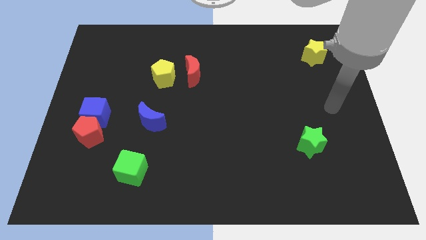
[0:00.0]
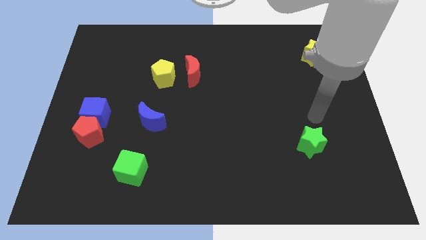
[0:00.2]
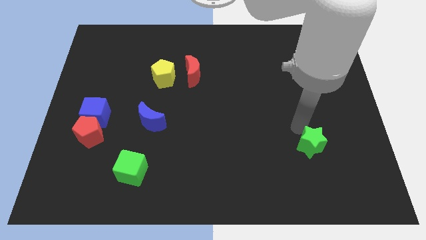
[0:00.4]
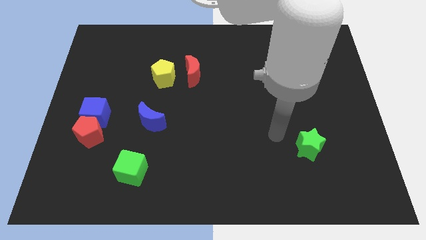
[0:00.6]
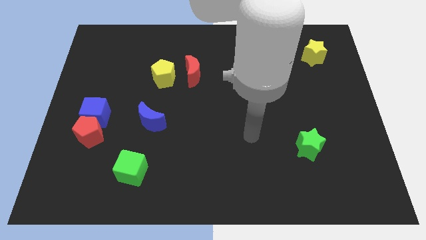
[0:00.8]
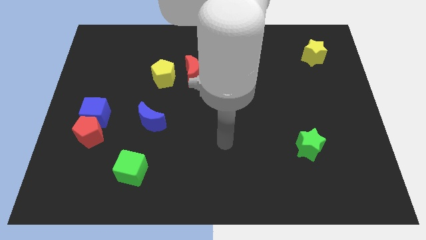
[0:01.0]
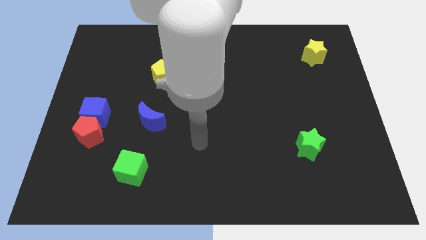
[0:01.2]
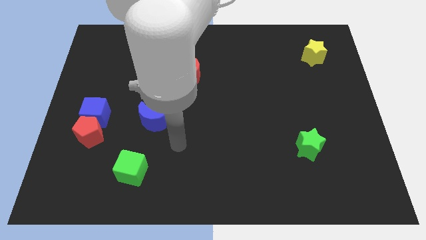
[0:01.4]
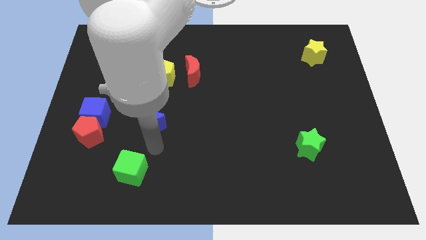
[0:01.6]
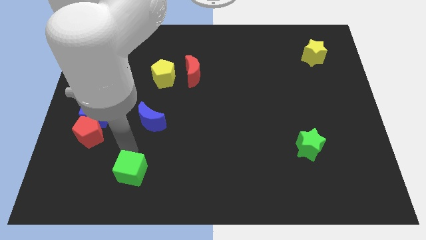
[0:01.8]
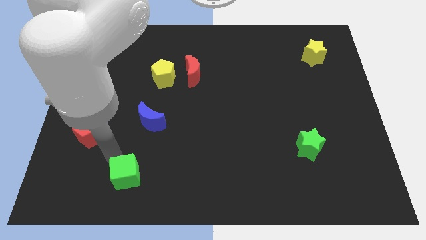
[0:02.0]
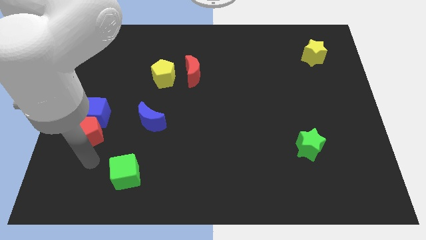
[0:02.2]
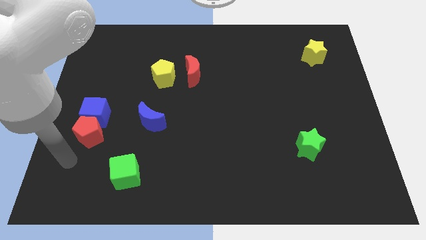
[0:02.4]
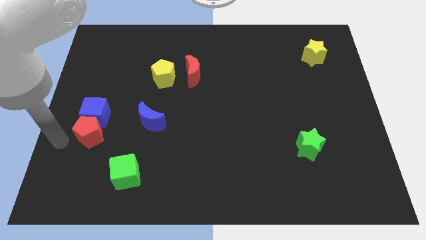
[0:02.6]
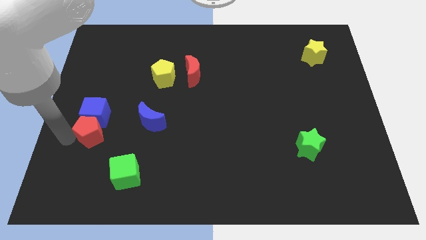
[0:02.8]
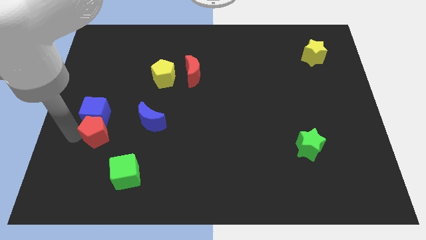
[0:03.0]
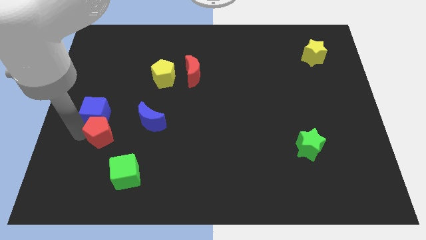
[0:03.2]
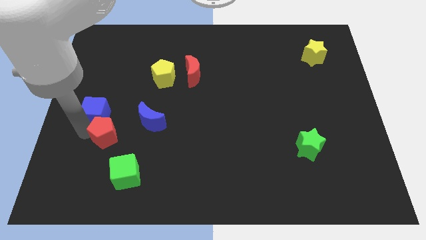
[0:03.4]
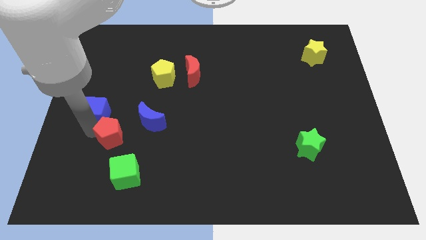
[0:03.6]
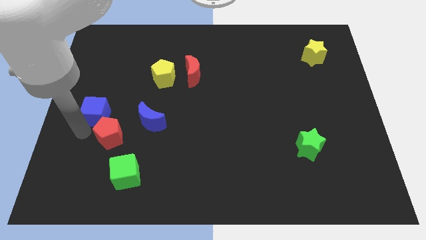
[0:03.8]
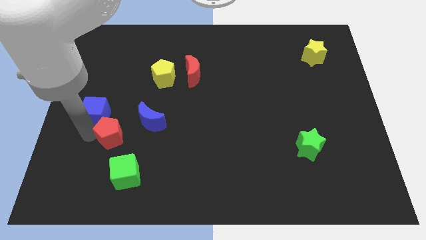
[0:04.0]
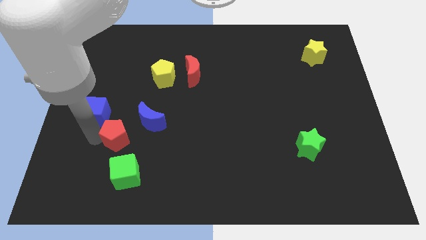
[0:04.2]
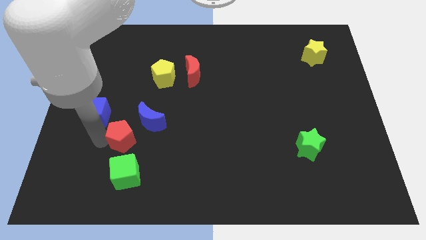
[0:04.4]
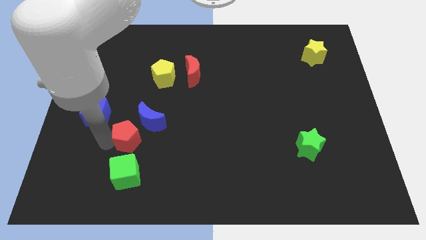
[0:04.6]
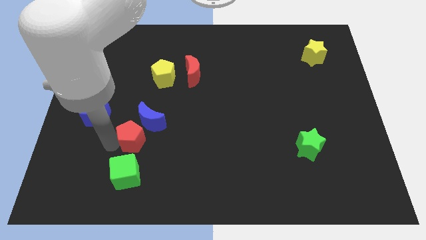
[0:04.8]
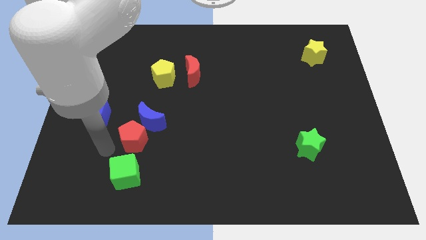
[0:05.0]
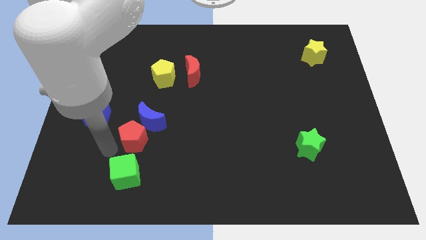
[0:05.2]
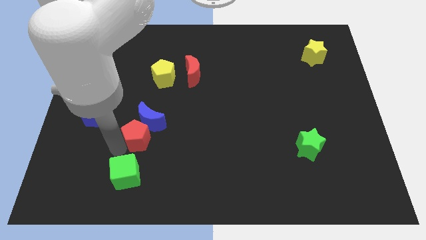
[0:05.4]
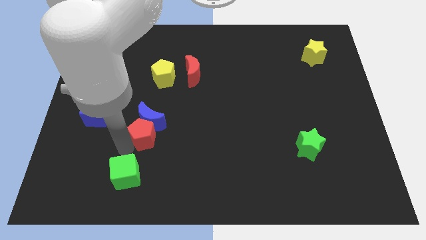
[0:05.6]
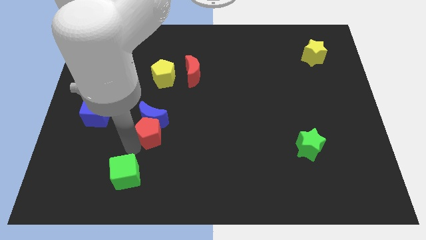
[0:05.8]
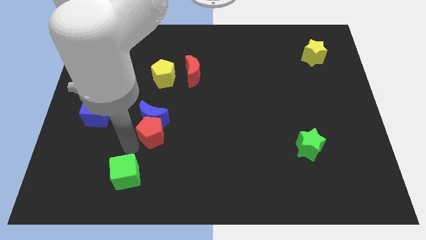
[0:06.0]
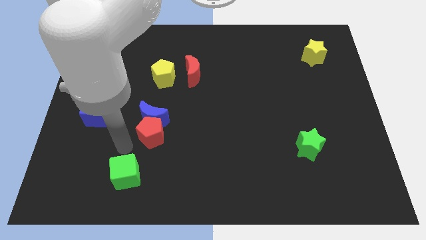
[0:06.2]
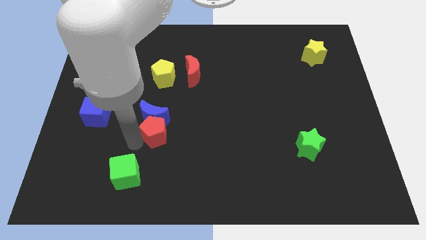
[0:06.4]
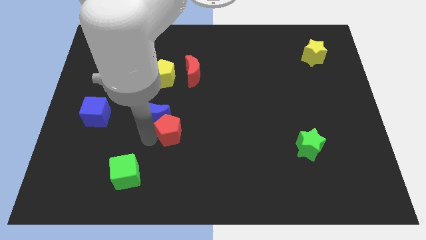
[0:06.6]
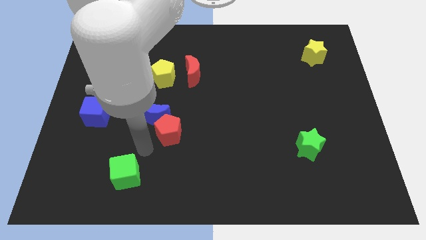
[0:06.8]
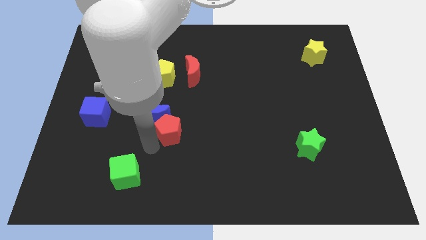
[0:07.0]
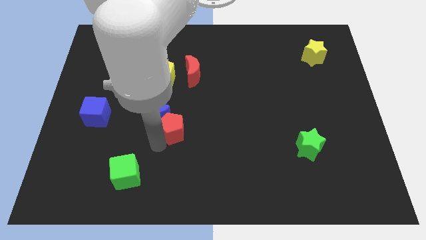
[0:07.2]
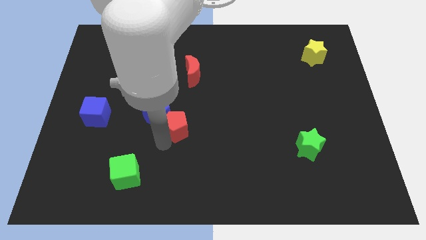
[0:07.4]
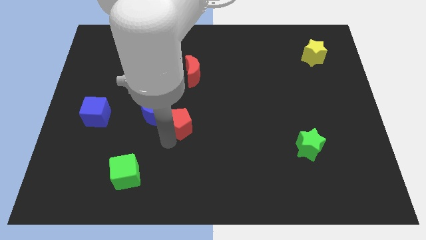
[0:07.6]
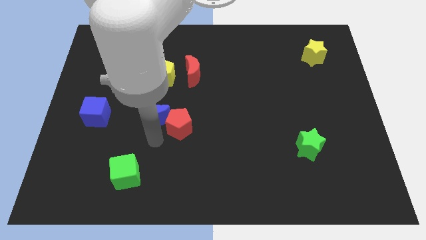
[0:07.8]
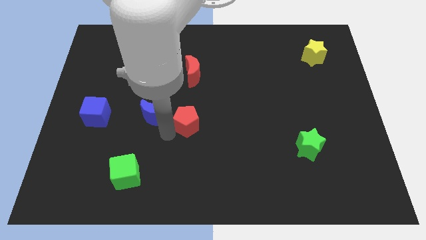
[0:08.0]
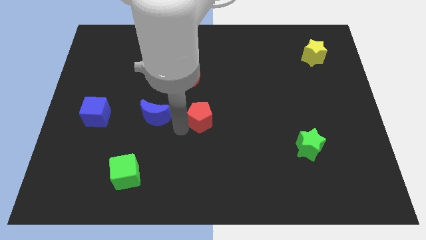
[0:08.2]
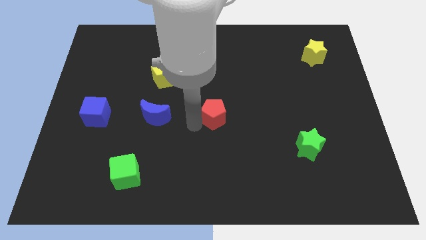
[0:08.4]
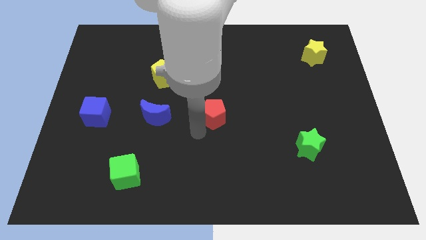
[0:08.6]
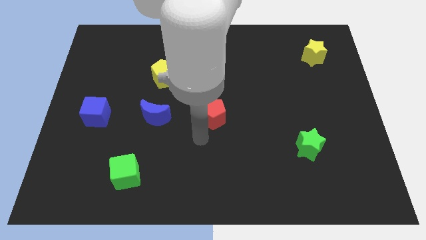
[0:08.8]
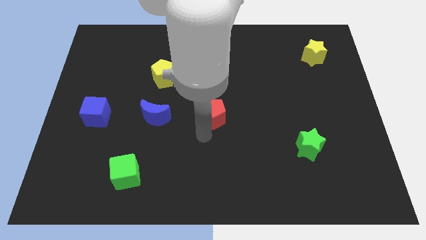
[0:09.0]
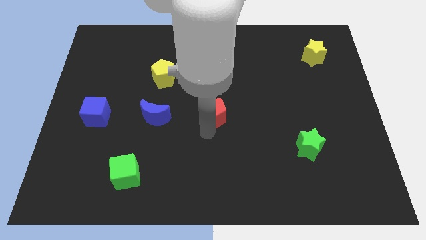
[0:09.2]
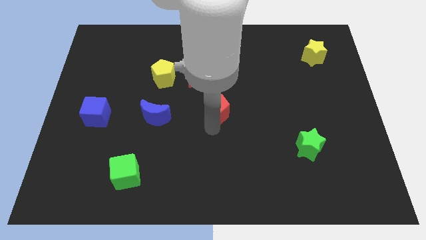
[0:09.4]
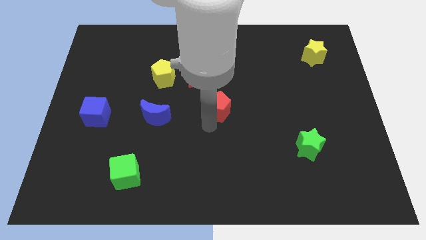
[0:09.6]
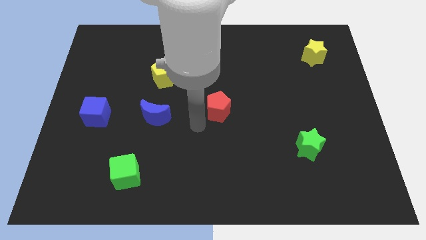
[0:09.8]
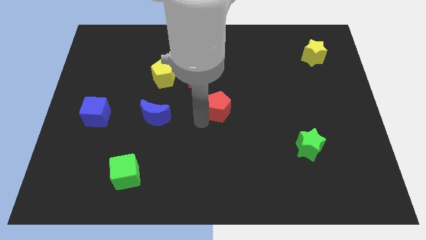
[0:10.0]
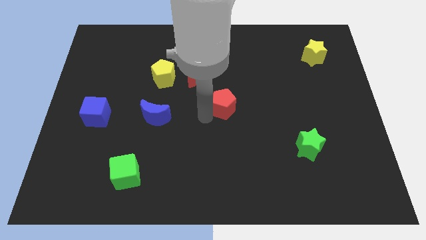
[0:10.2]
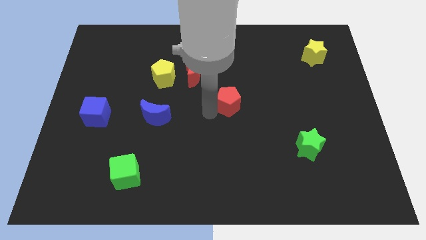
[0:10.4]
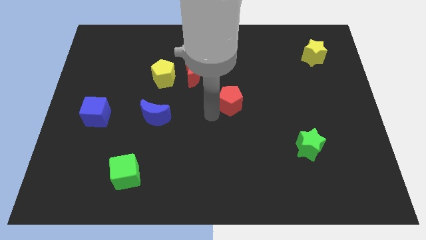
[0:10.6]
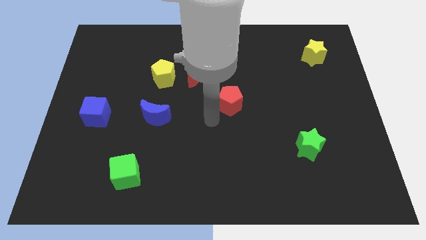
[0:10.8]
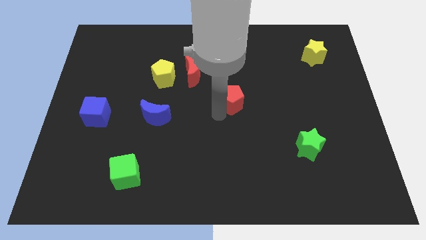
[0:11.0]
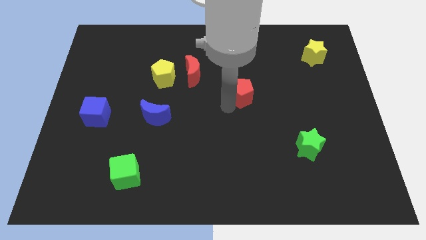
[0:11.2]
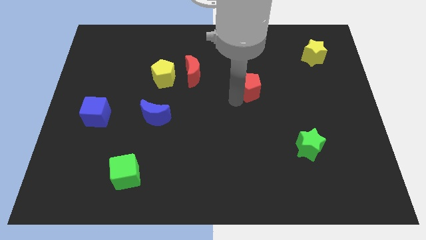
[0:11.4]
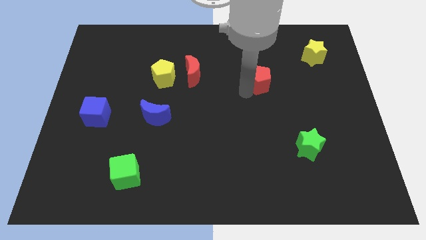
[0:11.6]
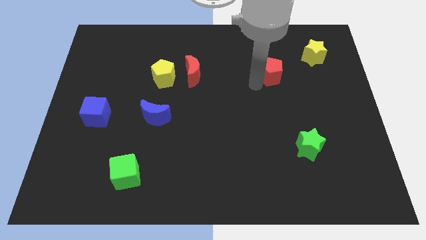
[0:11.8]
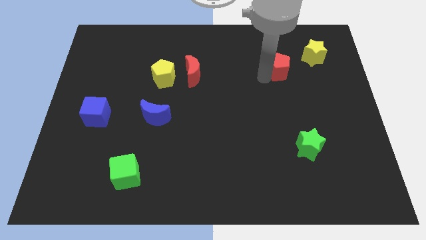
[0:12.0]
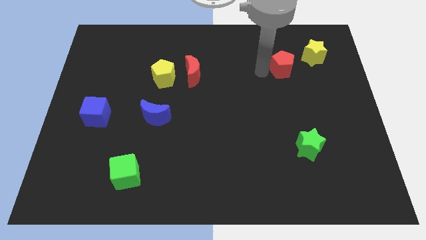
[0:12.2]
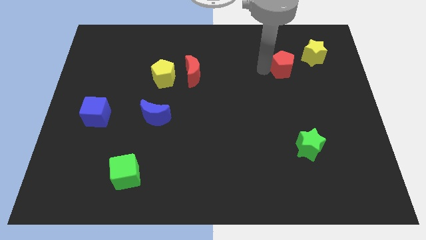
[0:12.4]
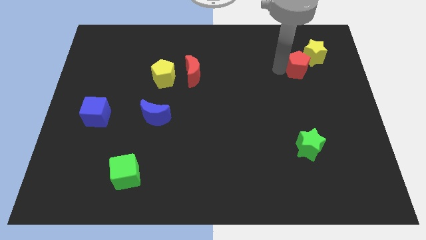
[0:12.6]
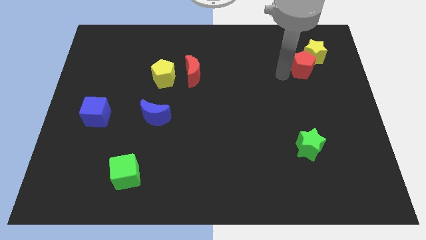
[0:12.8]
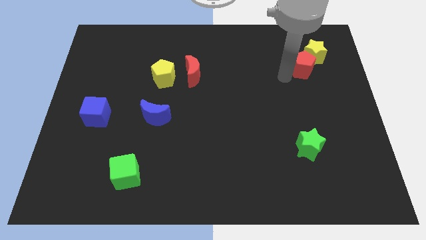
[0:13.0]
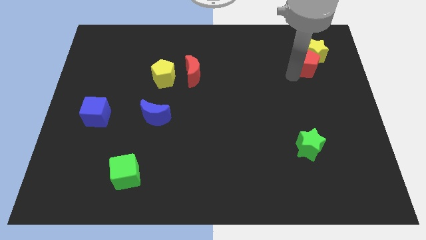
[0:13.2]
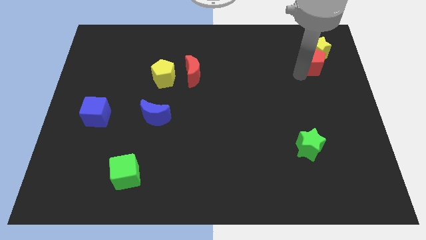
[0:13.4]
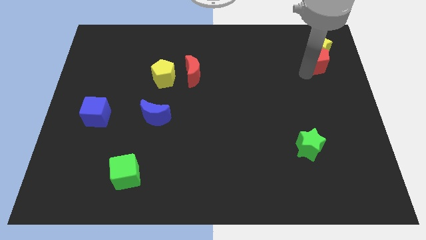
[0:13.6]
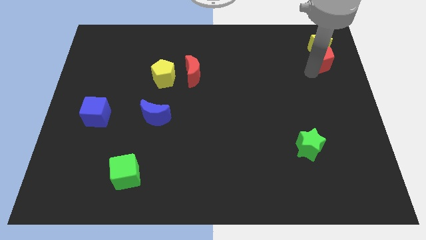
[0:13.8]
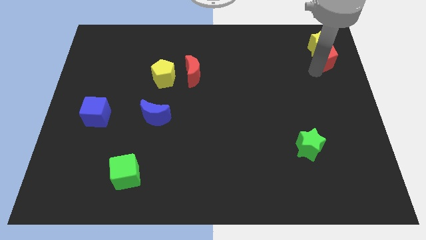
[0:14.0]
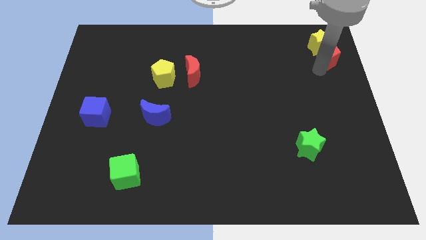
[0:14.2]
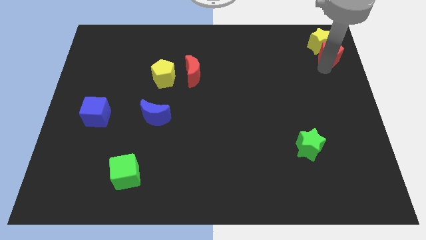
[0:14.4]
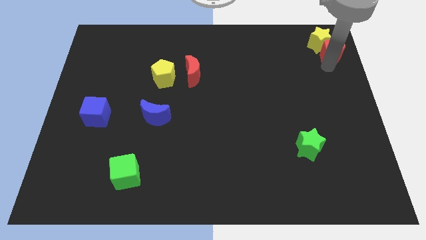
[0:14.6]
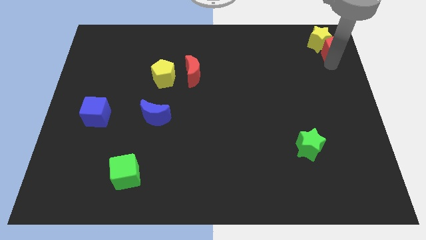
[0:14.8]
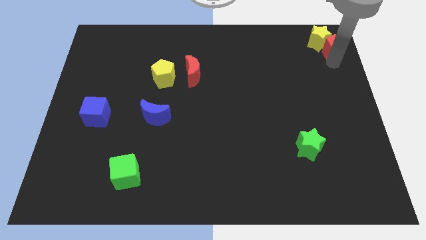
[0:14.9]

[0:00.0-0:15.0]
slide the red pentagon to the top right of the board
